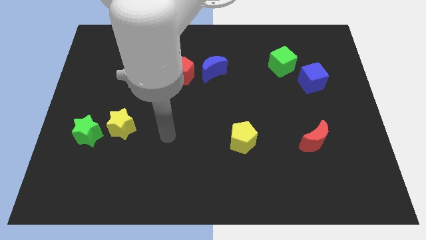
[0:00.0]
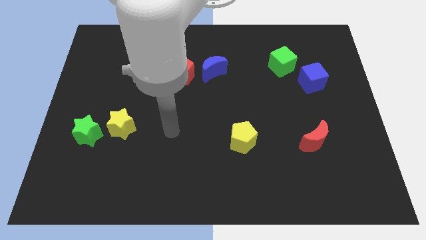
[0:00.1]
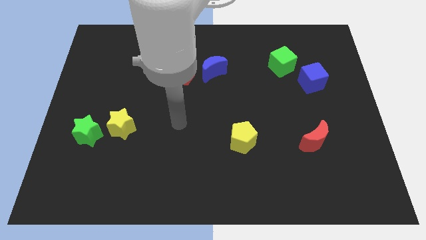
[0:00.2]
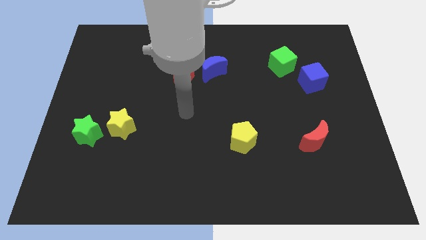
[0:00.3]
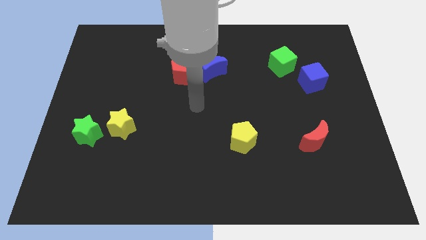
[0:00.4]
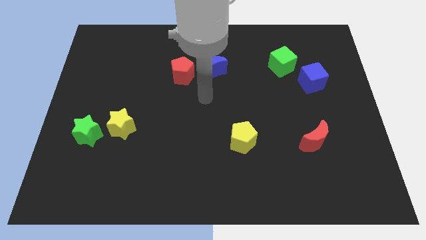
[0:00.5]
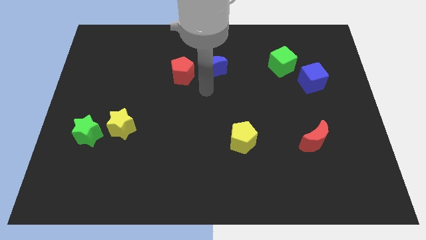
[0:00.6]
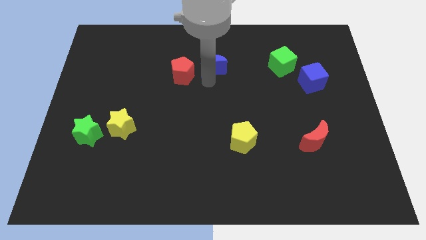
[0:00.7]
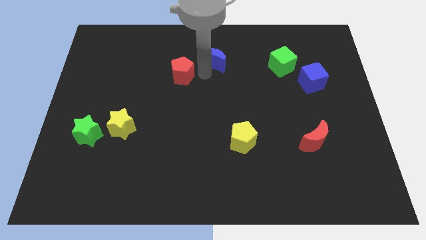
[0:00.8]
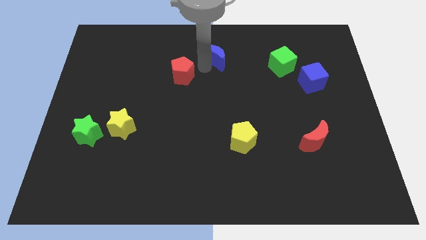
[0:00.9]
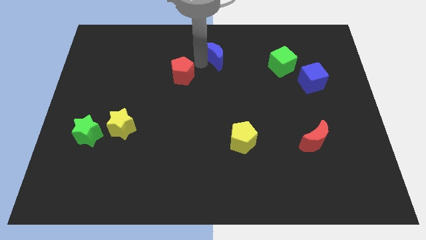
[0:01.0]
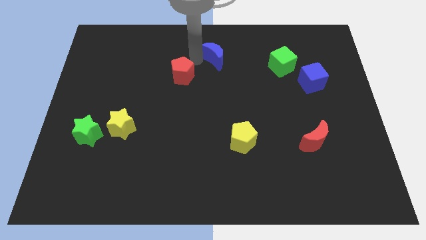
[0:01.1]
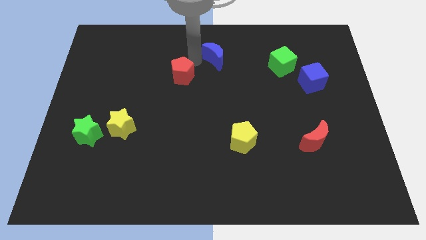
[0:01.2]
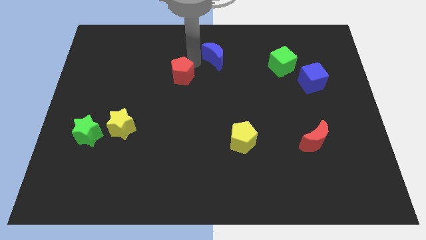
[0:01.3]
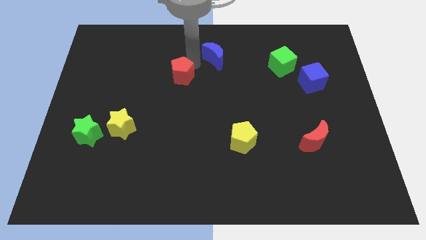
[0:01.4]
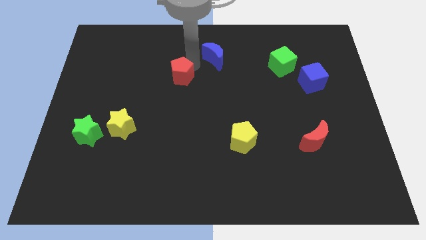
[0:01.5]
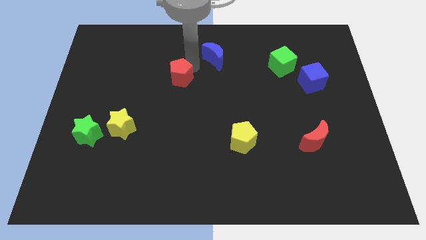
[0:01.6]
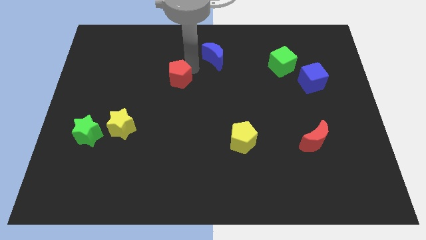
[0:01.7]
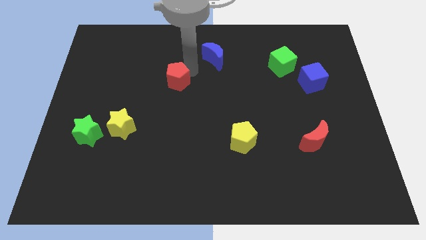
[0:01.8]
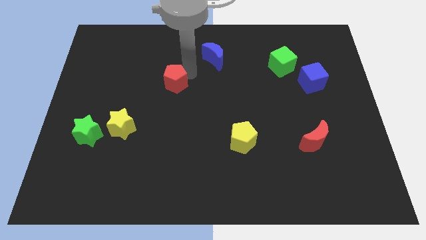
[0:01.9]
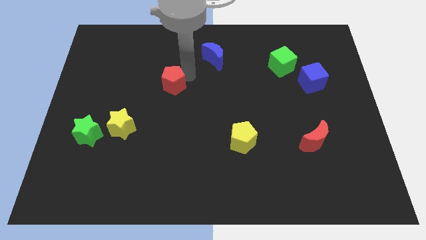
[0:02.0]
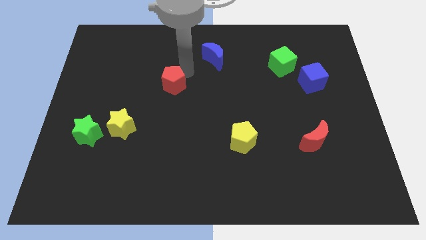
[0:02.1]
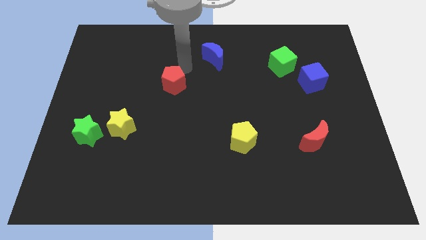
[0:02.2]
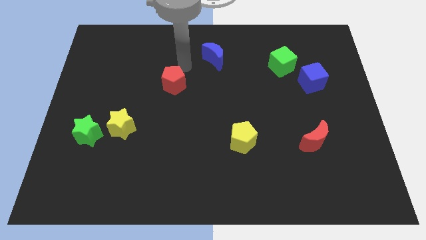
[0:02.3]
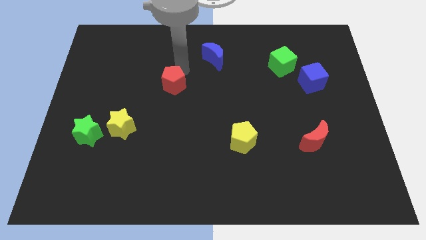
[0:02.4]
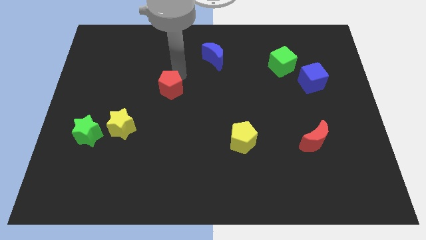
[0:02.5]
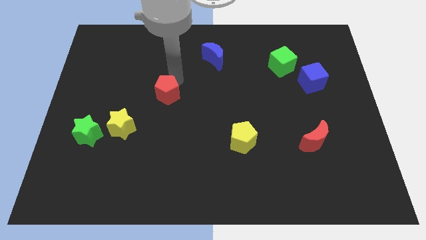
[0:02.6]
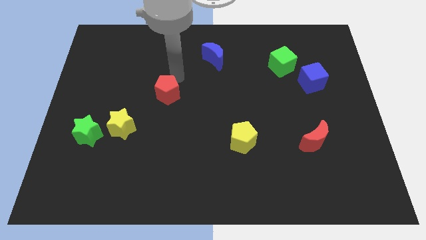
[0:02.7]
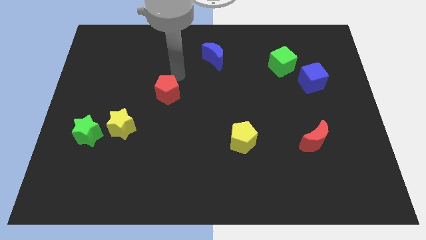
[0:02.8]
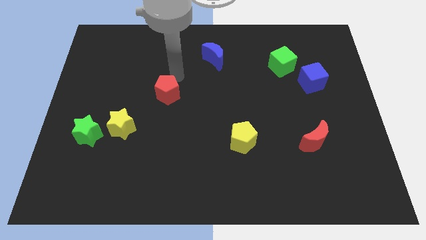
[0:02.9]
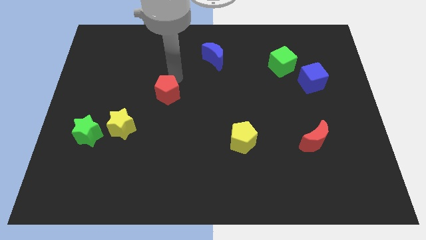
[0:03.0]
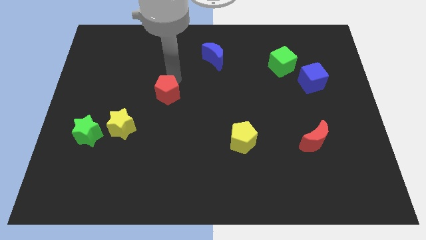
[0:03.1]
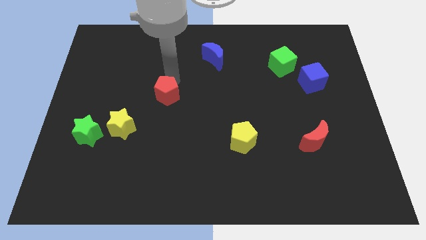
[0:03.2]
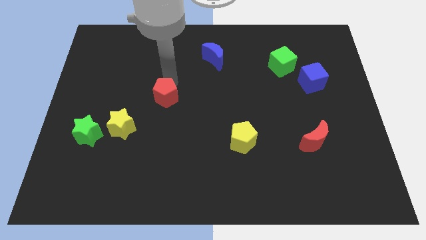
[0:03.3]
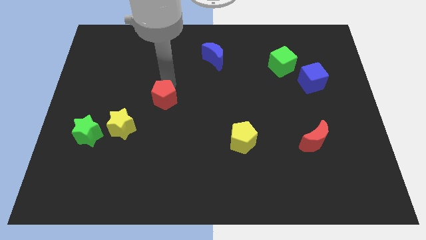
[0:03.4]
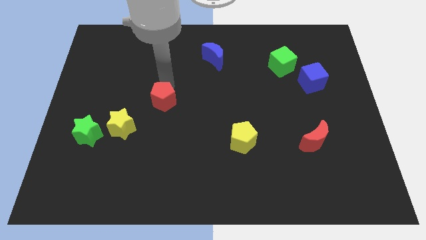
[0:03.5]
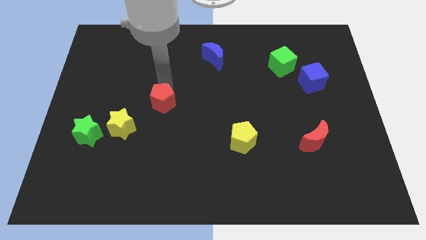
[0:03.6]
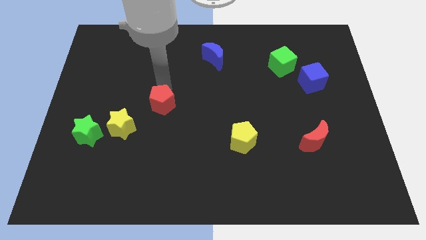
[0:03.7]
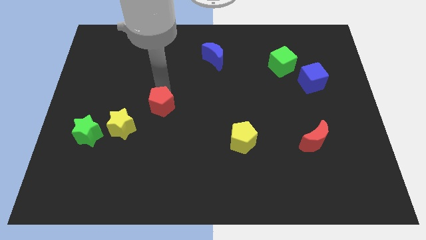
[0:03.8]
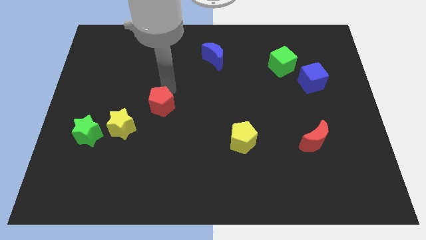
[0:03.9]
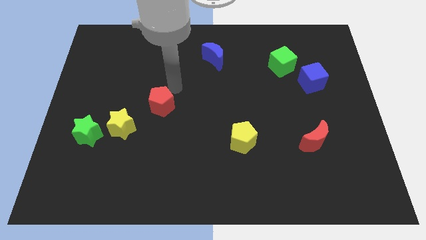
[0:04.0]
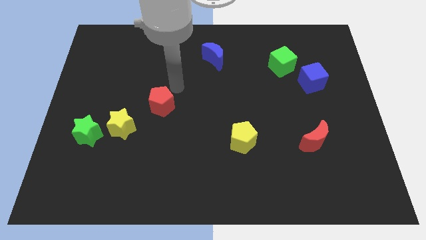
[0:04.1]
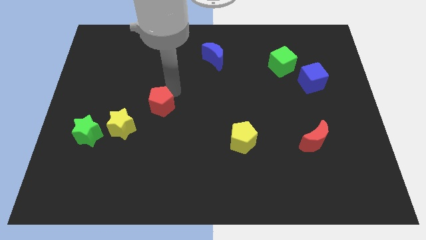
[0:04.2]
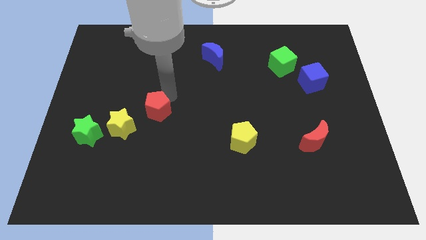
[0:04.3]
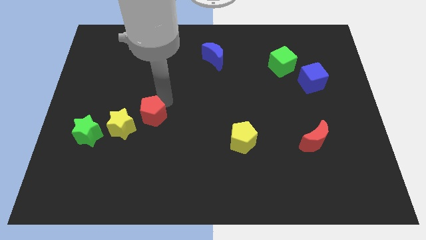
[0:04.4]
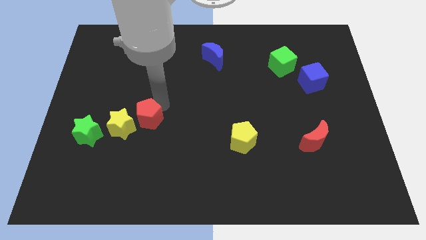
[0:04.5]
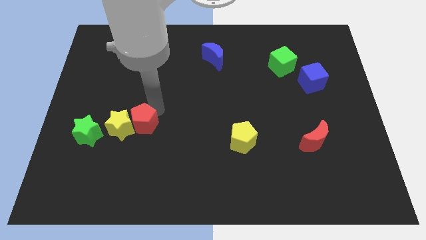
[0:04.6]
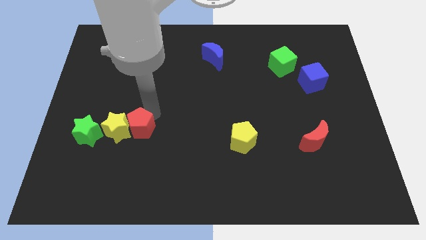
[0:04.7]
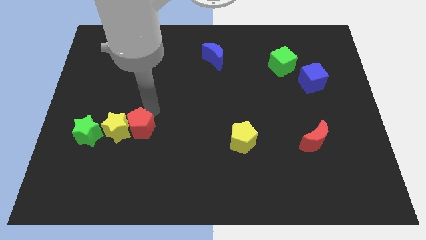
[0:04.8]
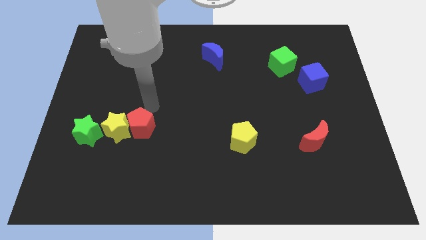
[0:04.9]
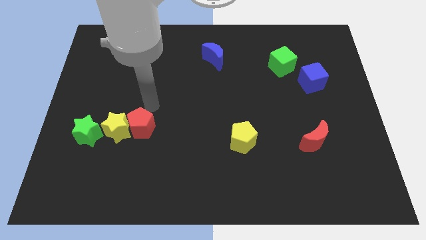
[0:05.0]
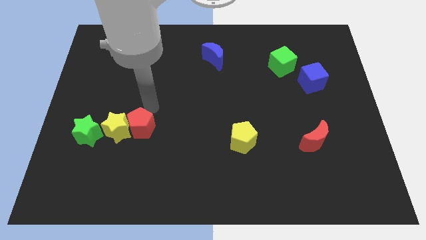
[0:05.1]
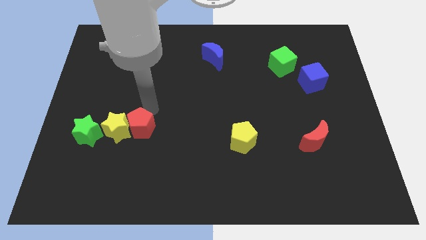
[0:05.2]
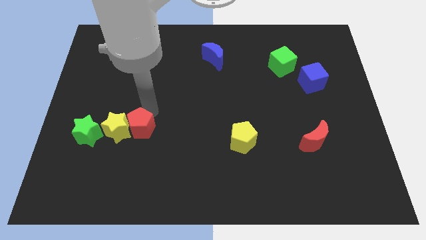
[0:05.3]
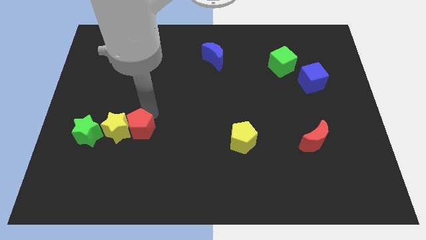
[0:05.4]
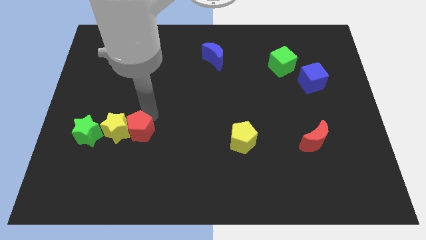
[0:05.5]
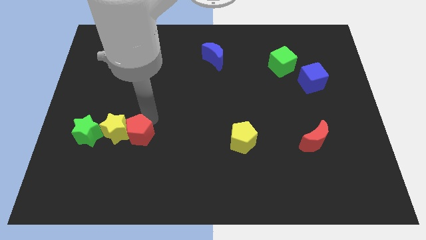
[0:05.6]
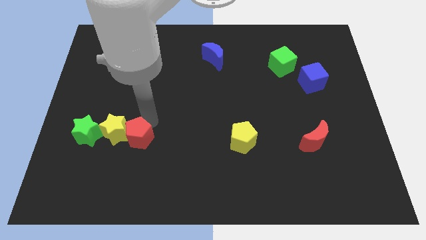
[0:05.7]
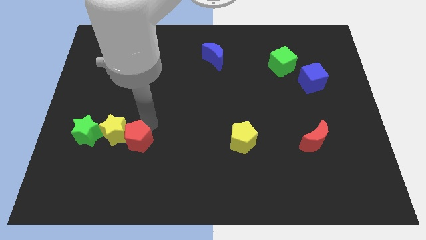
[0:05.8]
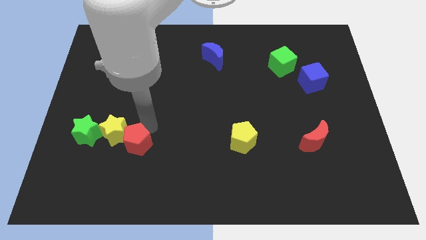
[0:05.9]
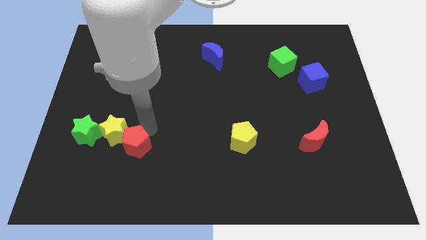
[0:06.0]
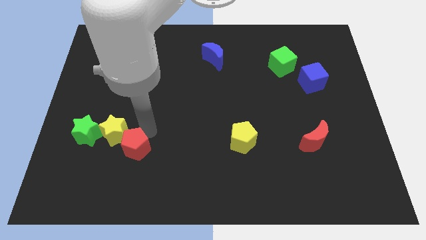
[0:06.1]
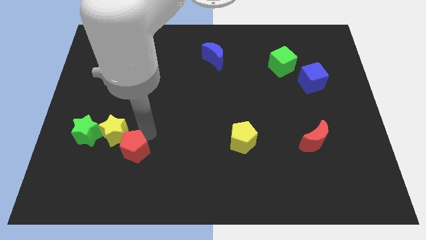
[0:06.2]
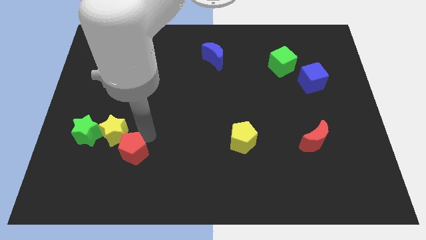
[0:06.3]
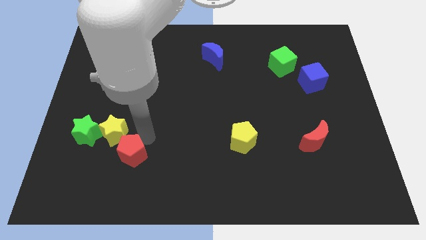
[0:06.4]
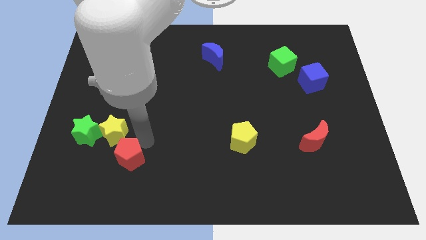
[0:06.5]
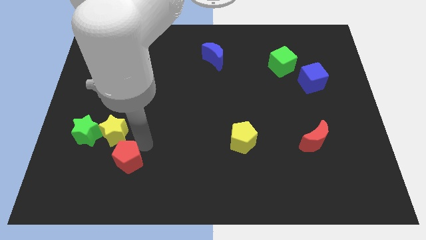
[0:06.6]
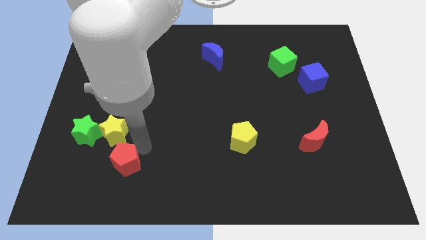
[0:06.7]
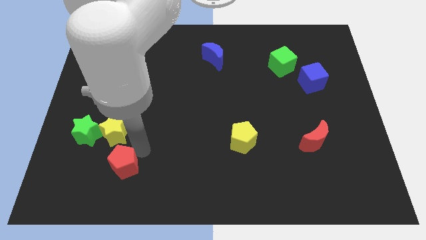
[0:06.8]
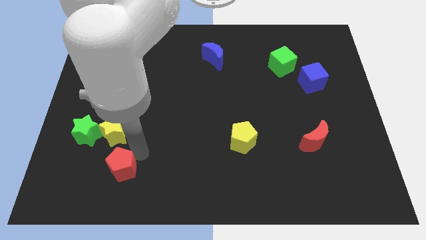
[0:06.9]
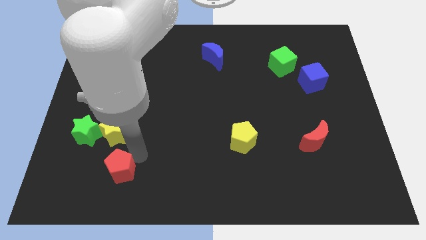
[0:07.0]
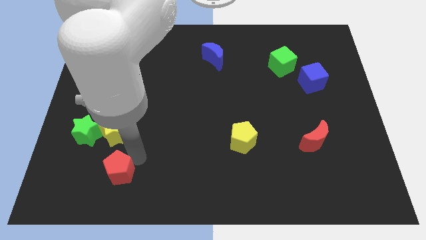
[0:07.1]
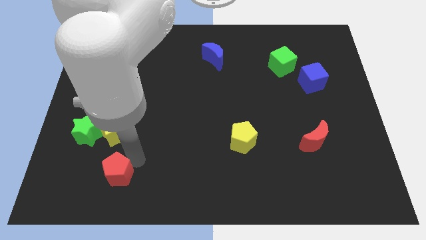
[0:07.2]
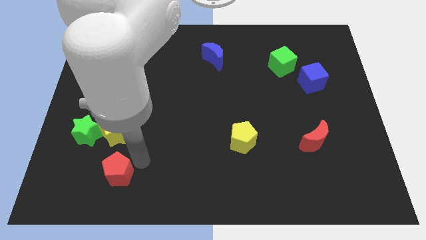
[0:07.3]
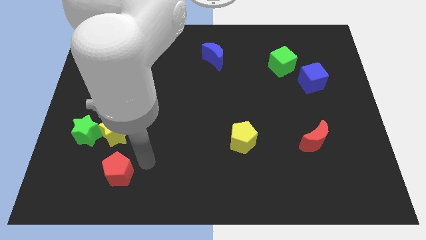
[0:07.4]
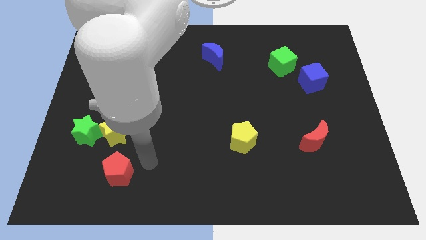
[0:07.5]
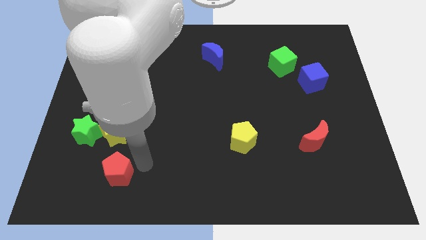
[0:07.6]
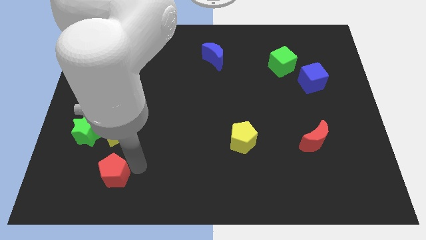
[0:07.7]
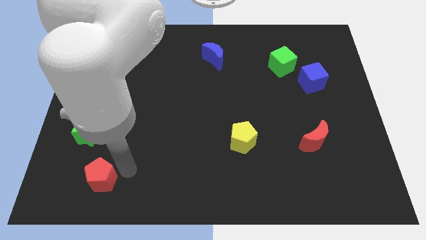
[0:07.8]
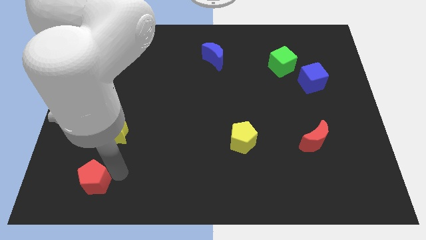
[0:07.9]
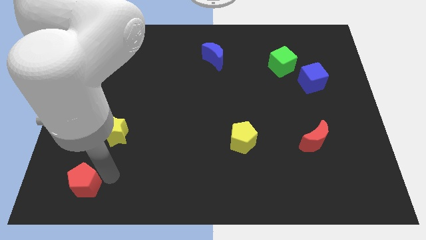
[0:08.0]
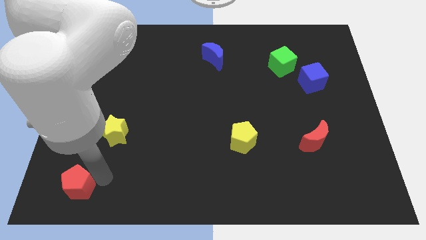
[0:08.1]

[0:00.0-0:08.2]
slide the red pentagon to the lower left corner
